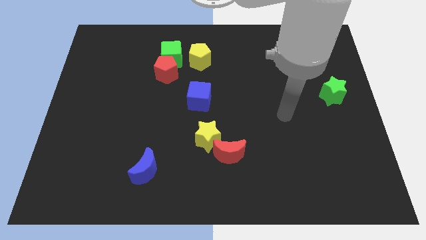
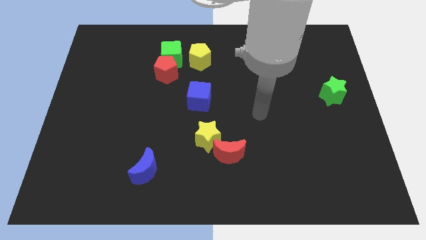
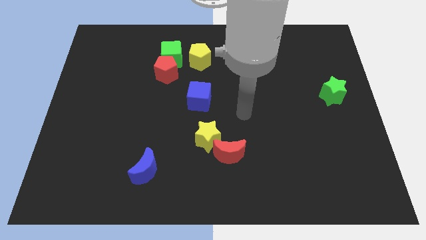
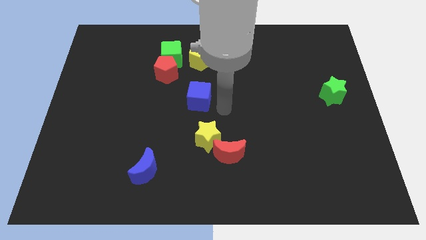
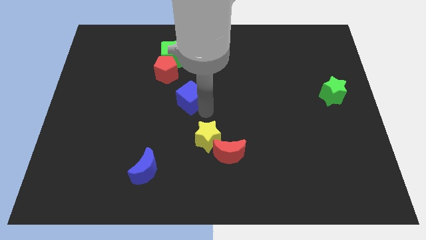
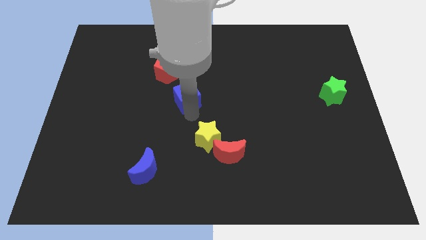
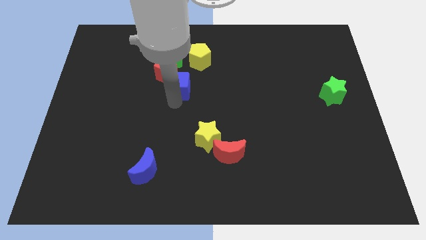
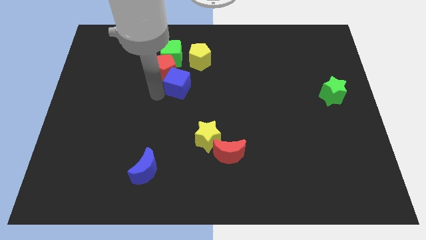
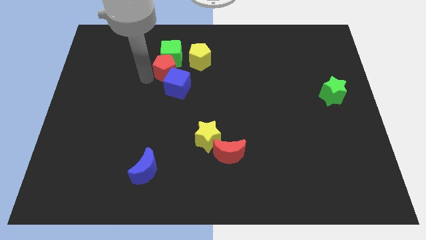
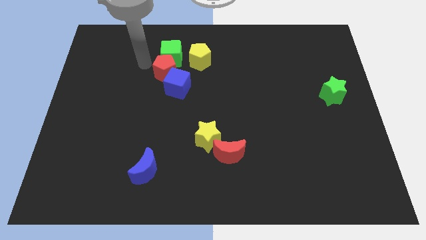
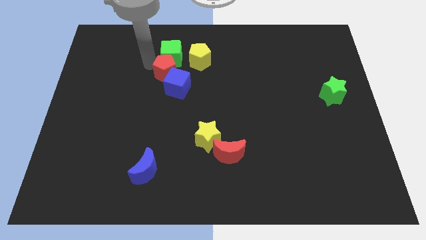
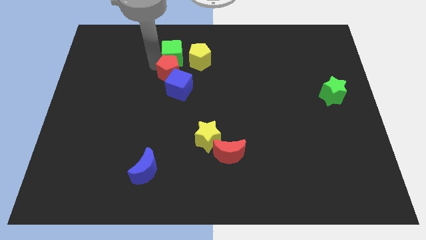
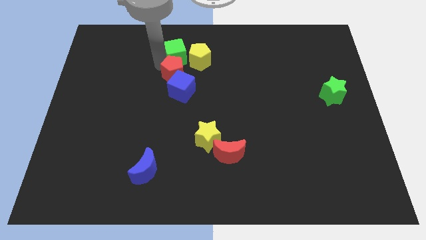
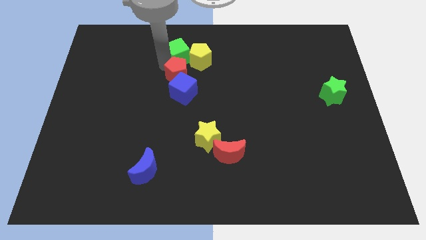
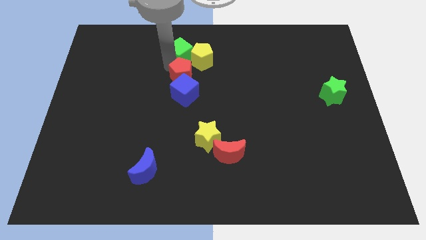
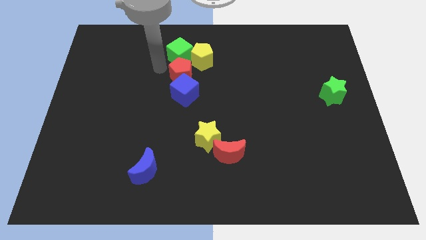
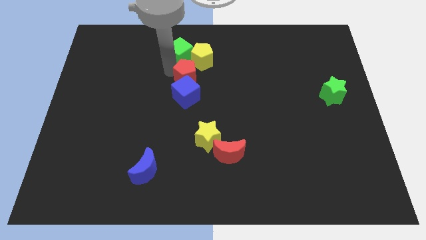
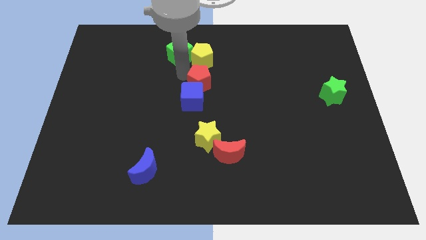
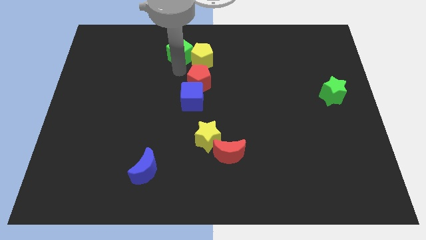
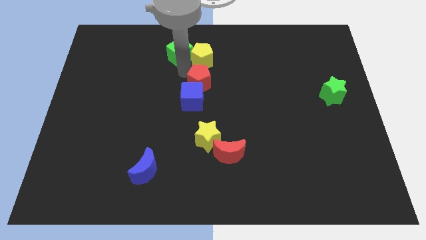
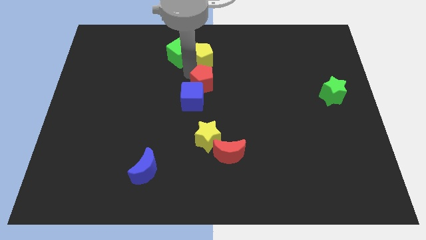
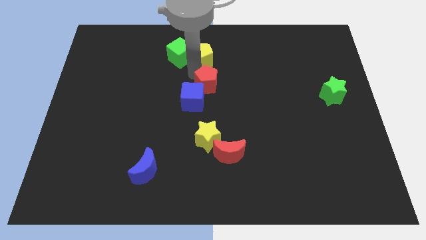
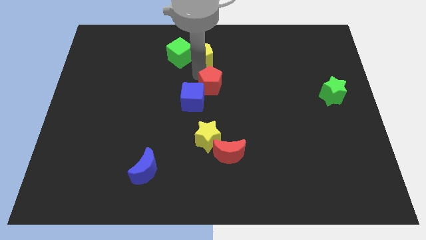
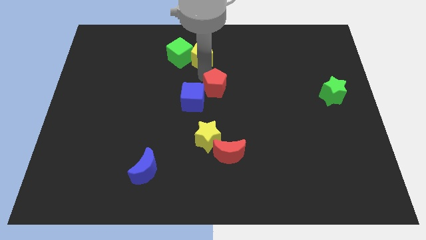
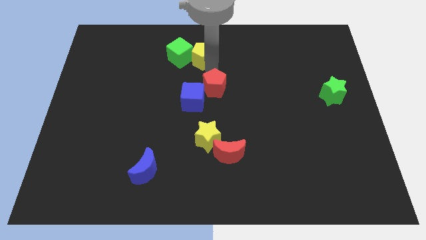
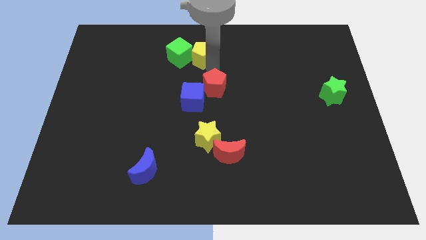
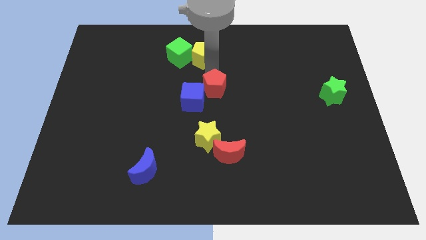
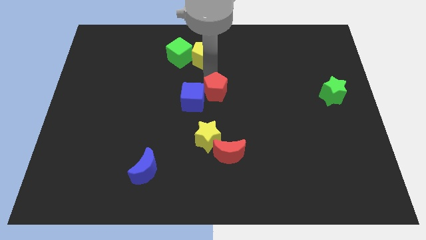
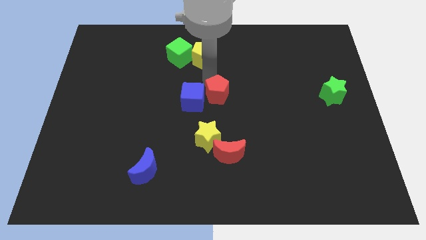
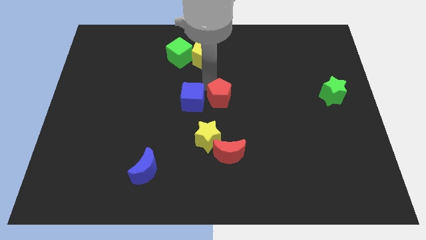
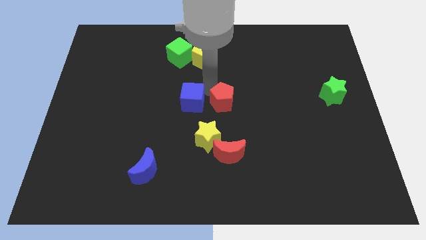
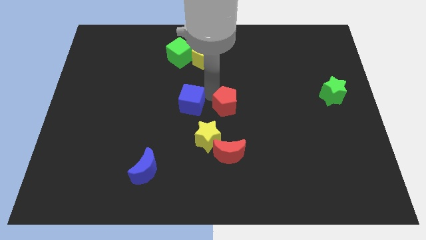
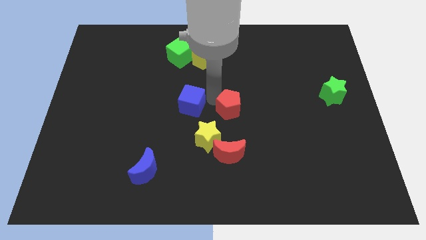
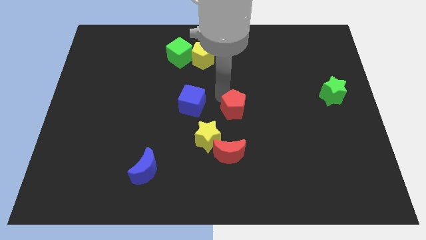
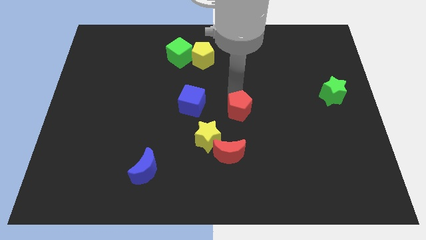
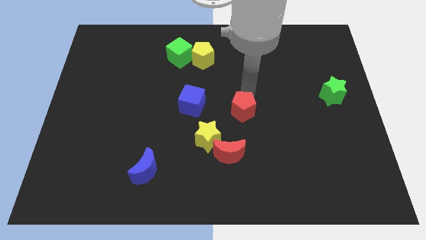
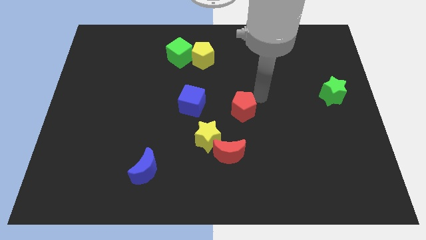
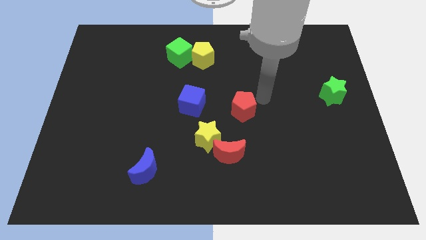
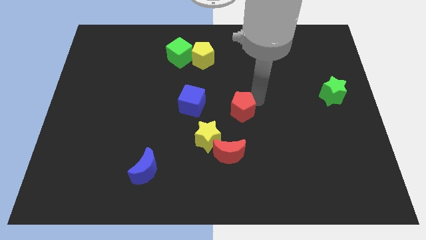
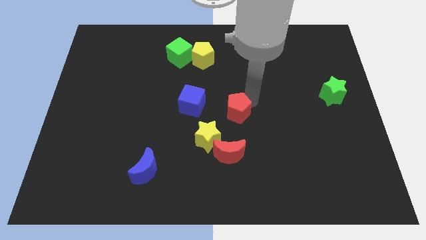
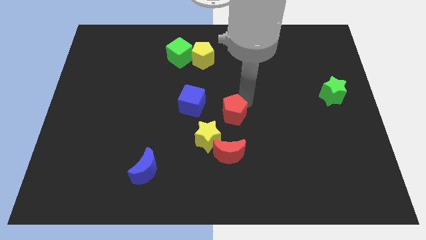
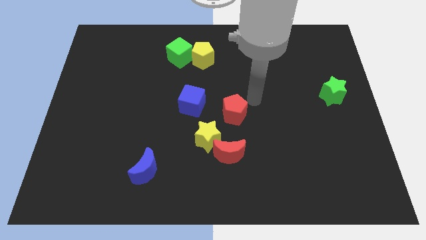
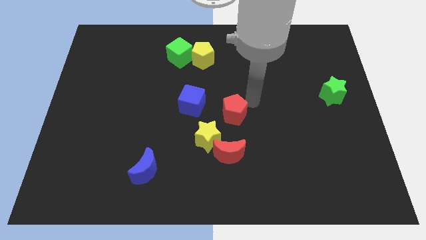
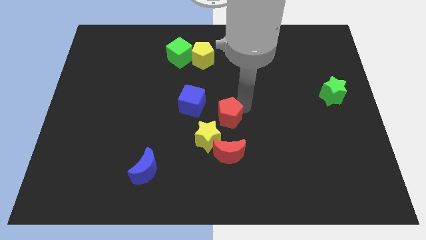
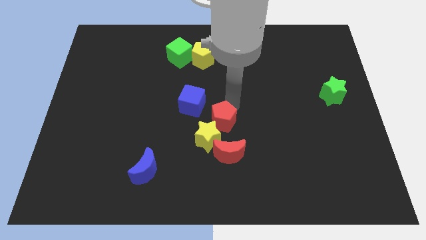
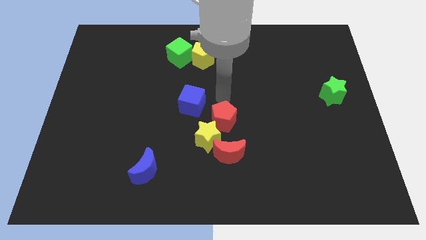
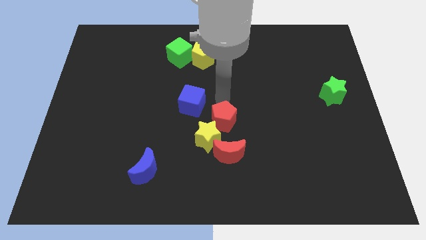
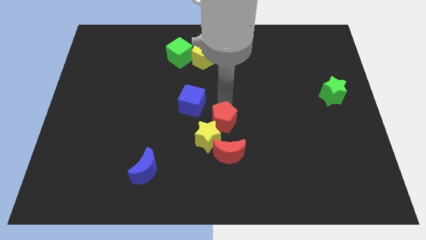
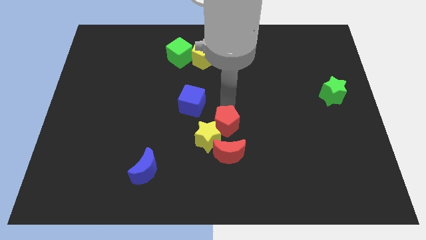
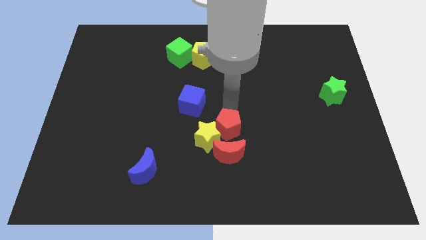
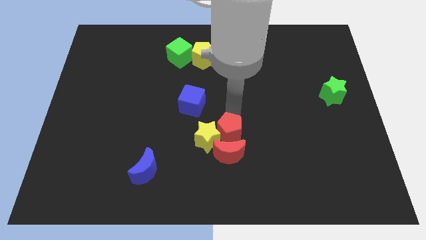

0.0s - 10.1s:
push the red pentagon close to the red moon

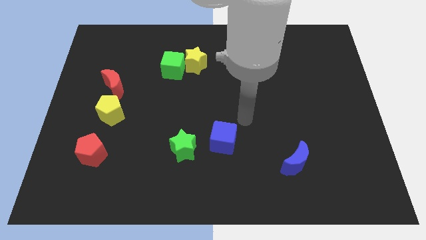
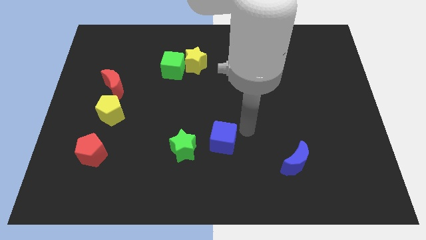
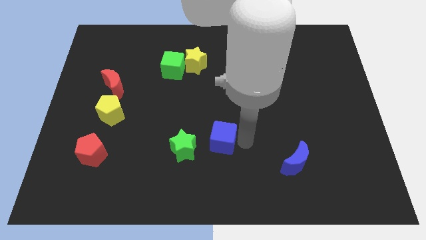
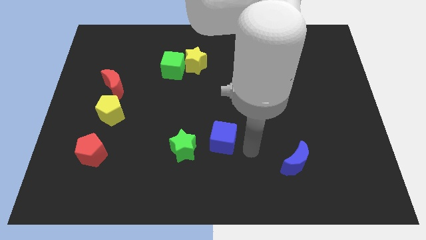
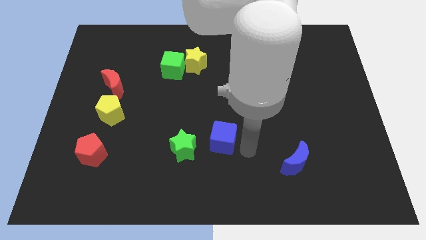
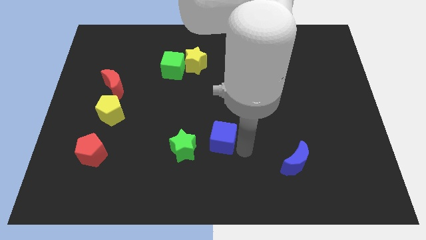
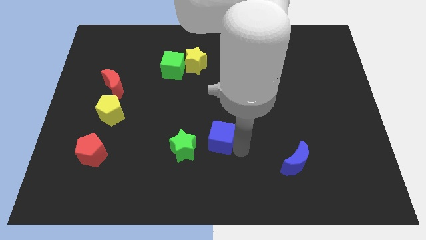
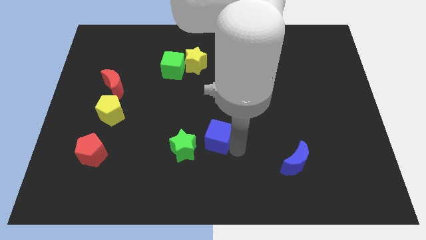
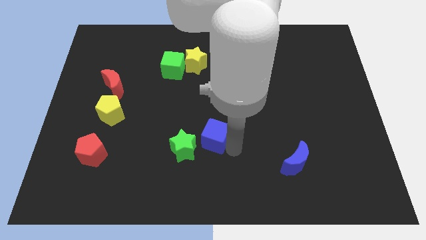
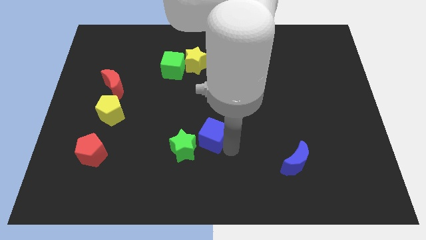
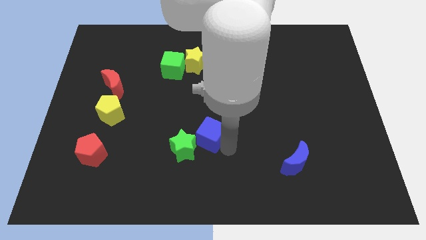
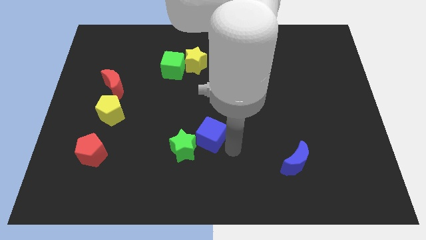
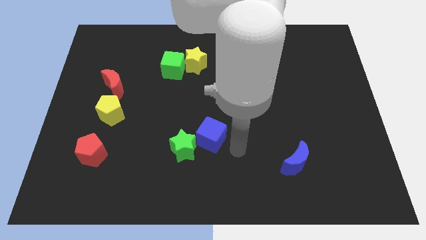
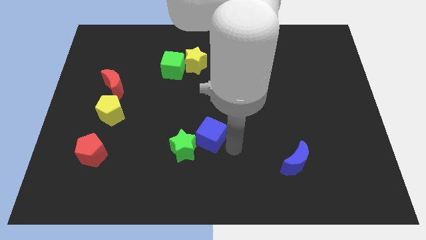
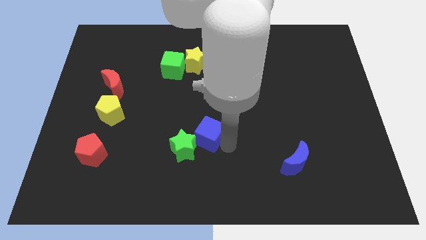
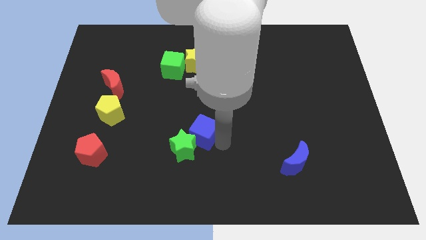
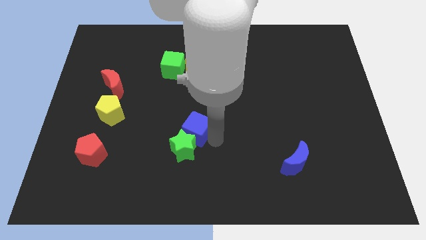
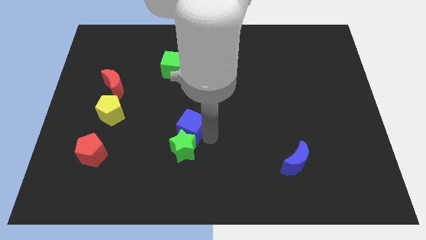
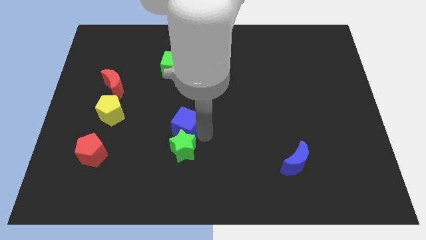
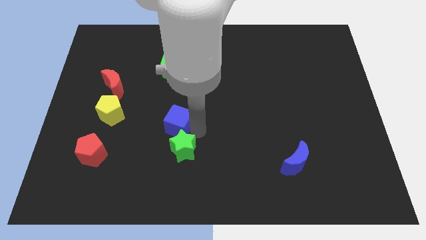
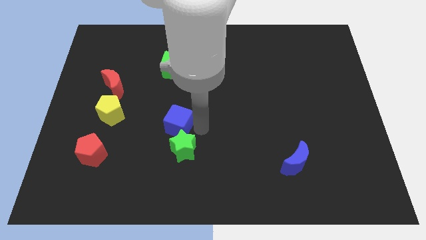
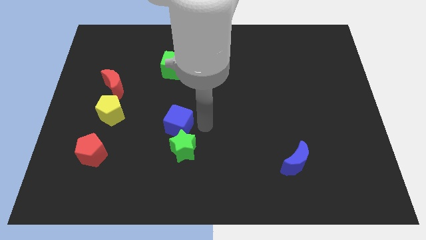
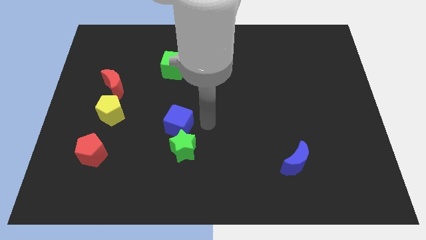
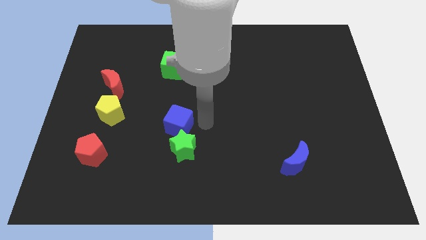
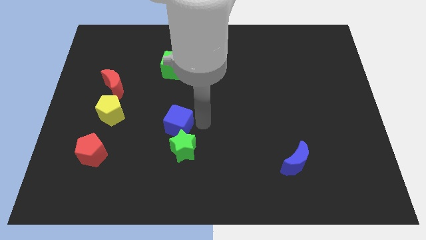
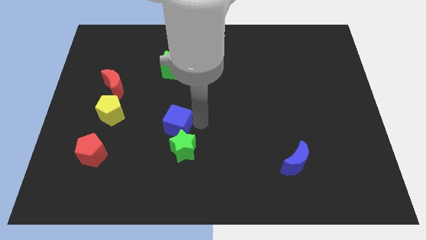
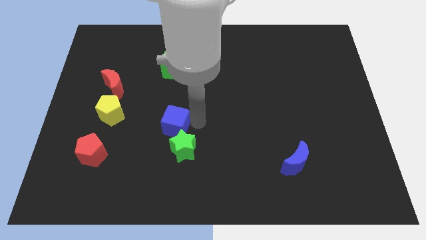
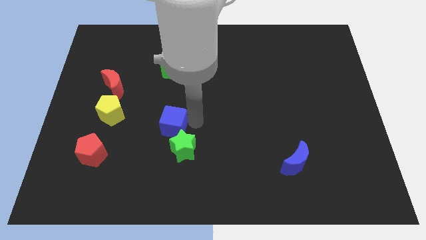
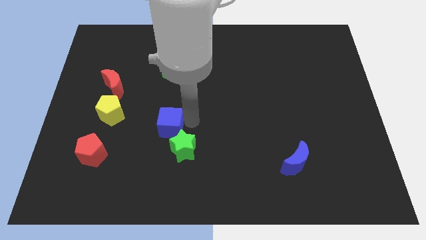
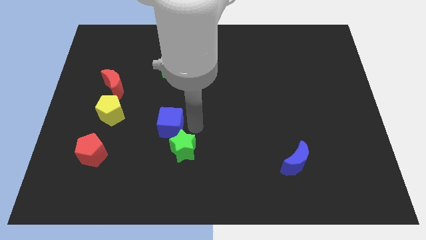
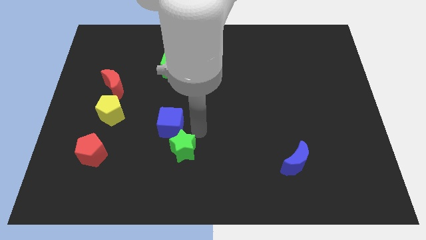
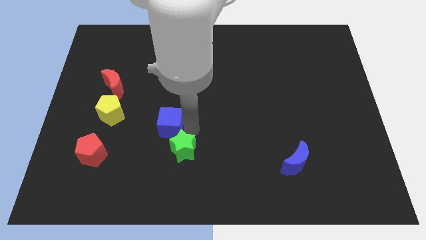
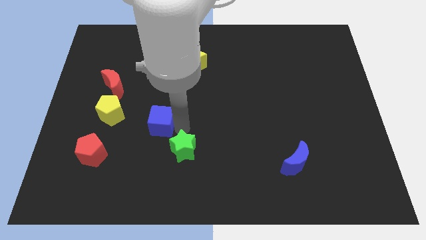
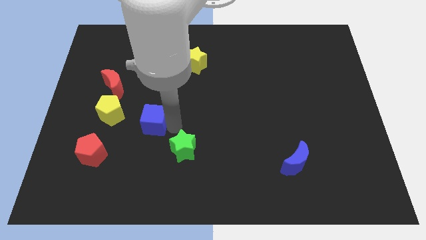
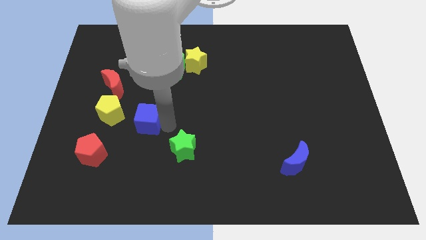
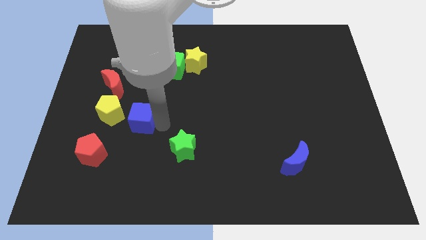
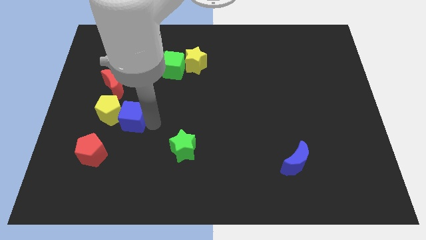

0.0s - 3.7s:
slide the blue cube towards the yellow pentagon
